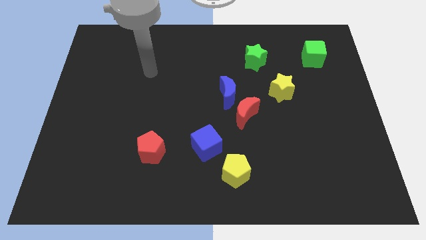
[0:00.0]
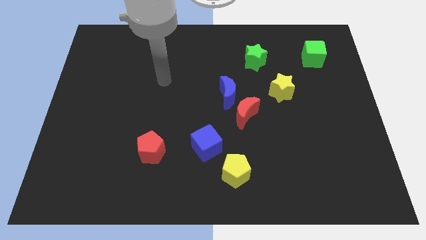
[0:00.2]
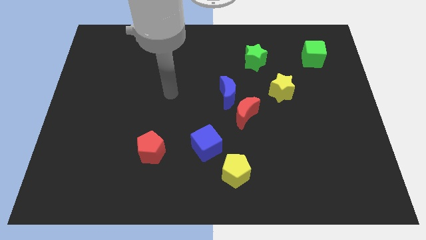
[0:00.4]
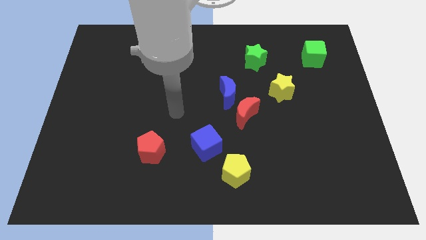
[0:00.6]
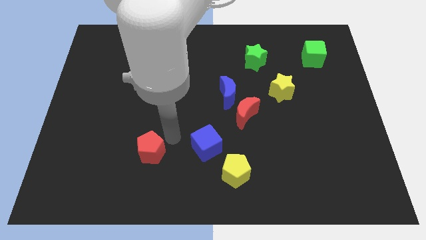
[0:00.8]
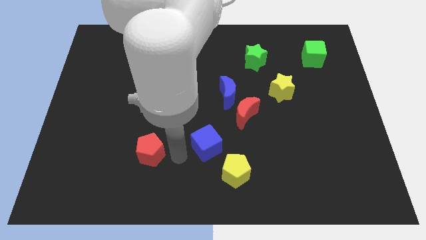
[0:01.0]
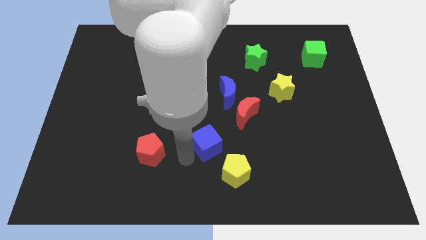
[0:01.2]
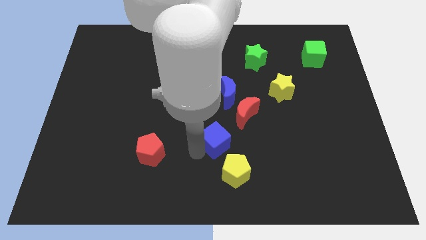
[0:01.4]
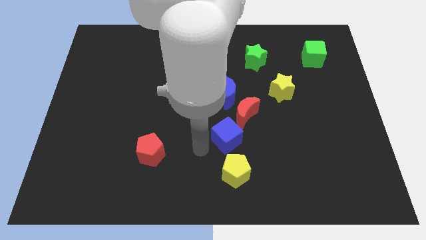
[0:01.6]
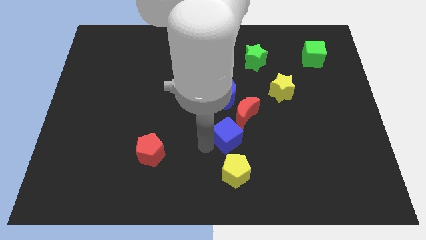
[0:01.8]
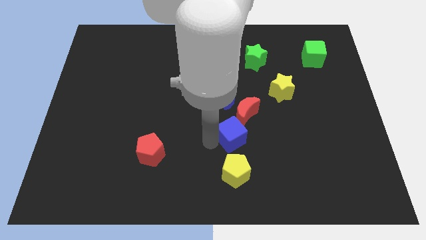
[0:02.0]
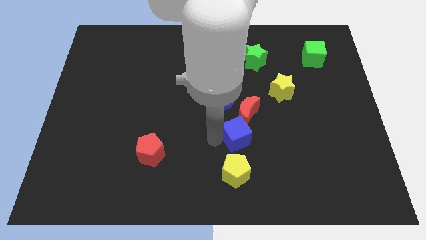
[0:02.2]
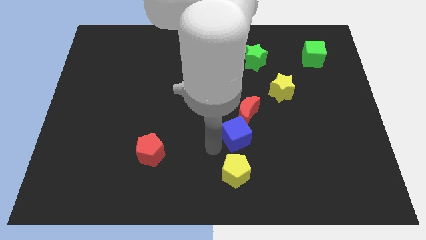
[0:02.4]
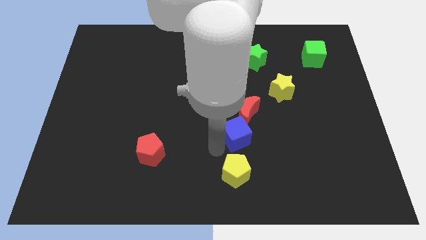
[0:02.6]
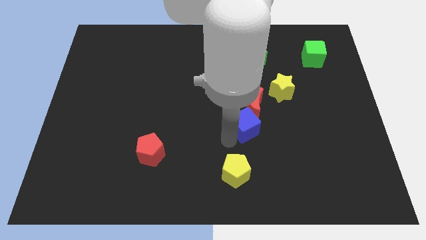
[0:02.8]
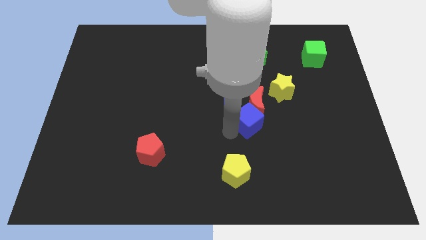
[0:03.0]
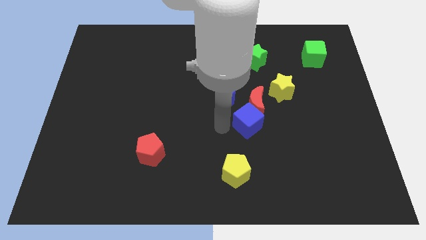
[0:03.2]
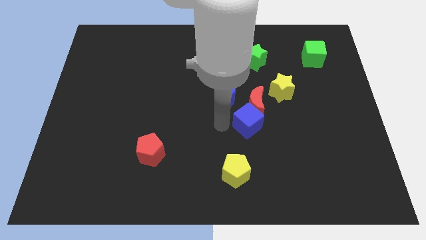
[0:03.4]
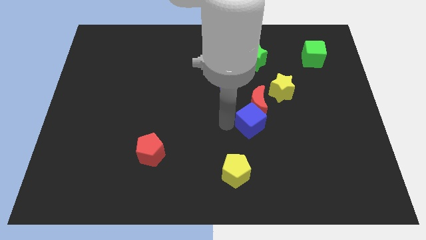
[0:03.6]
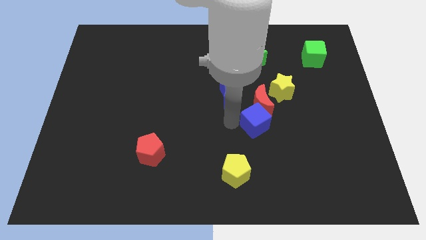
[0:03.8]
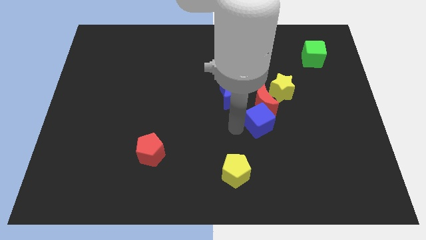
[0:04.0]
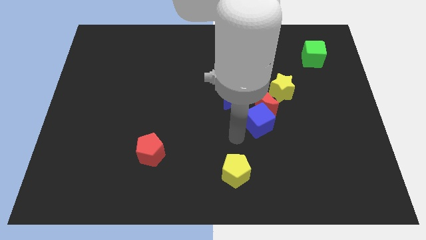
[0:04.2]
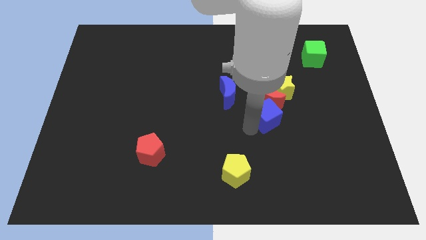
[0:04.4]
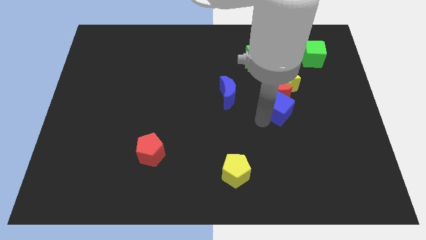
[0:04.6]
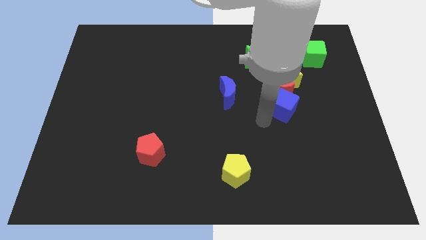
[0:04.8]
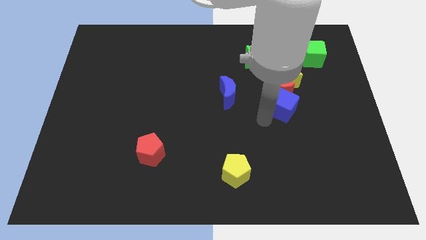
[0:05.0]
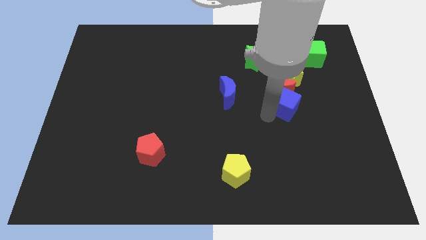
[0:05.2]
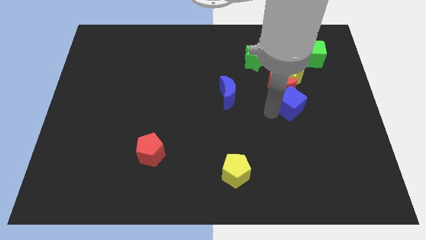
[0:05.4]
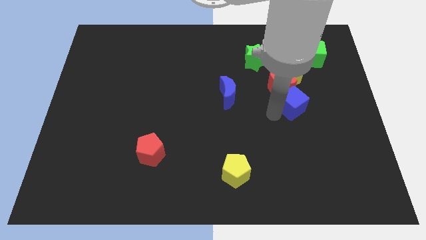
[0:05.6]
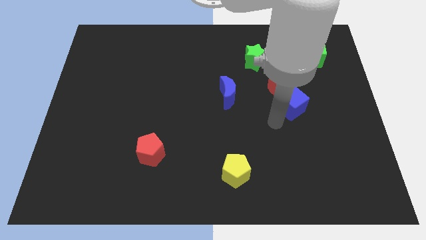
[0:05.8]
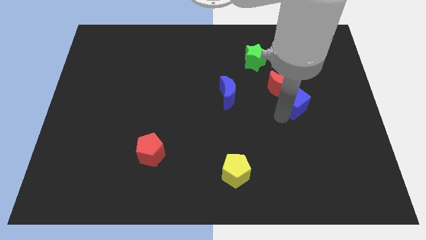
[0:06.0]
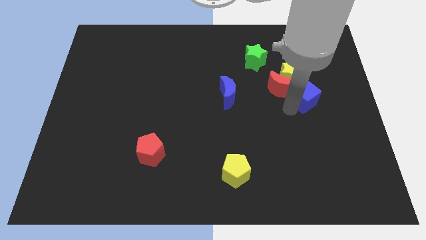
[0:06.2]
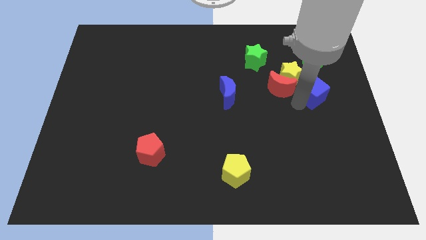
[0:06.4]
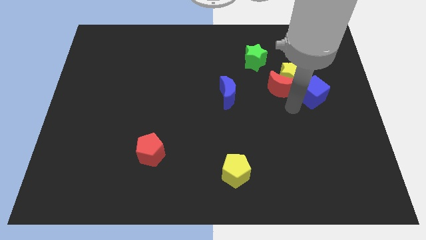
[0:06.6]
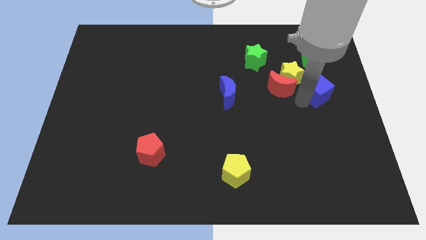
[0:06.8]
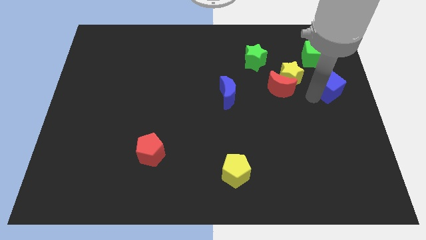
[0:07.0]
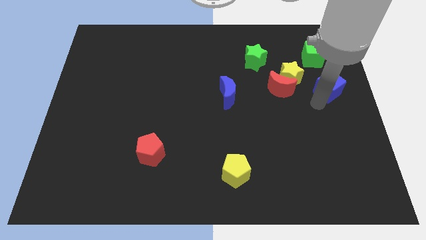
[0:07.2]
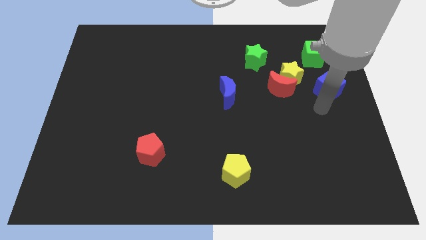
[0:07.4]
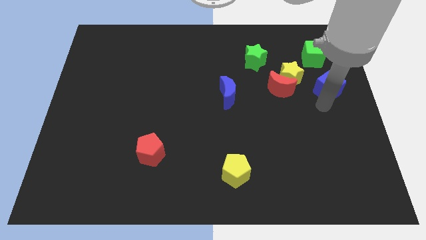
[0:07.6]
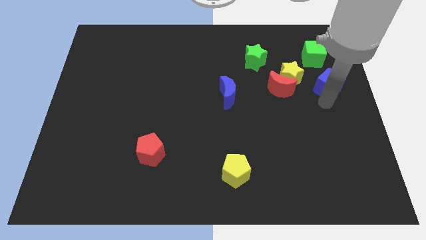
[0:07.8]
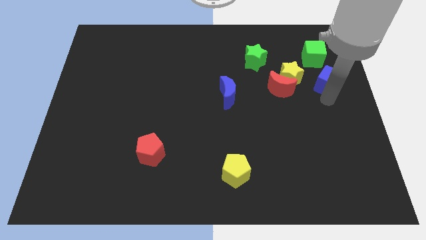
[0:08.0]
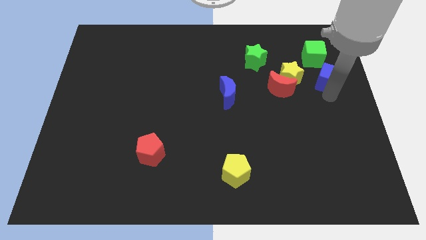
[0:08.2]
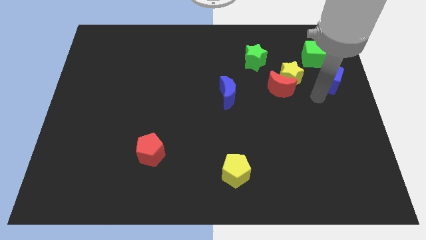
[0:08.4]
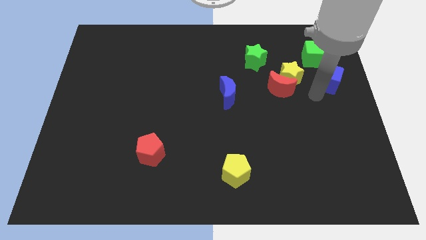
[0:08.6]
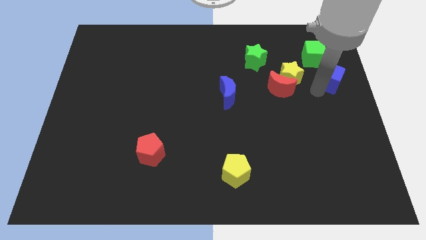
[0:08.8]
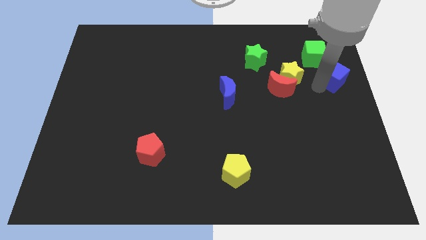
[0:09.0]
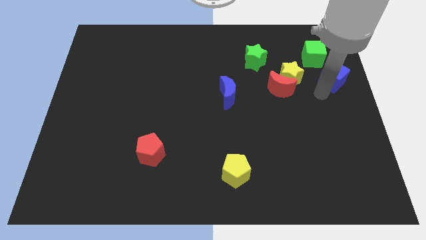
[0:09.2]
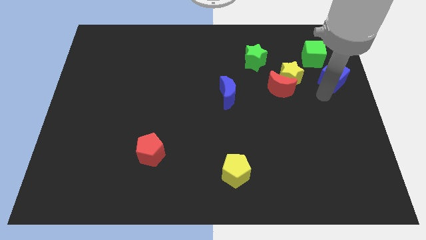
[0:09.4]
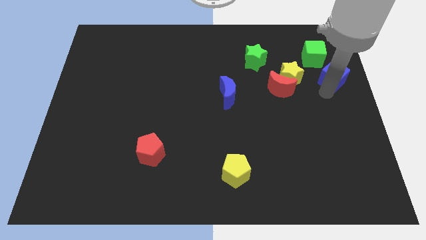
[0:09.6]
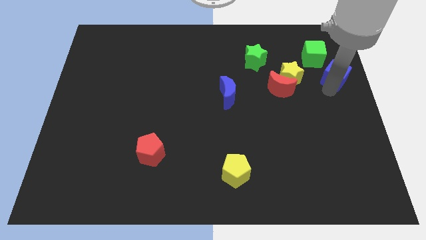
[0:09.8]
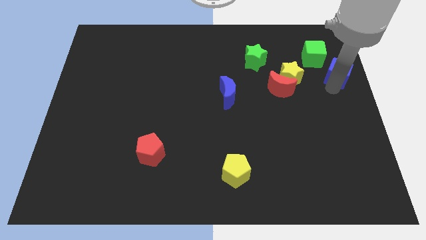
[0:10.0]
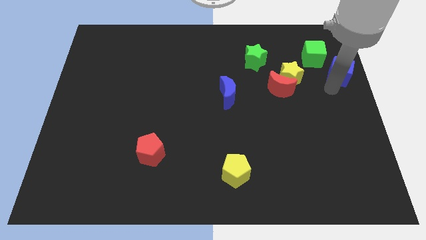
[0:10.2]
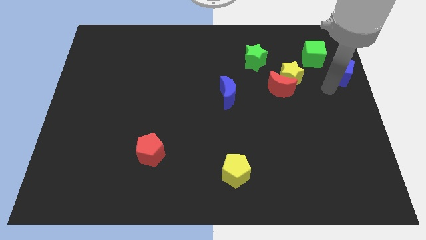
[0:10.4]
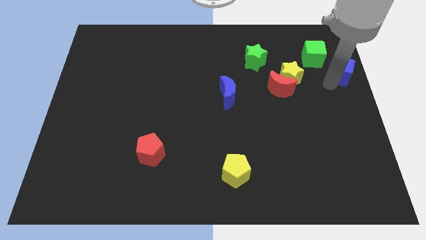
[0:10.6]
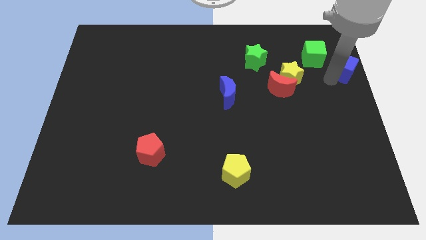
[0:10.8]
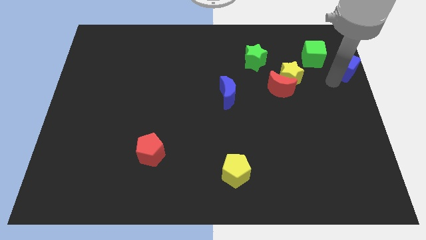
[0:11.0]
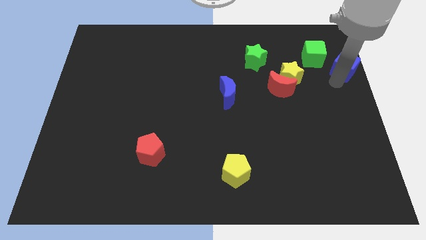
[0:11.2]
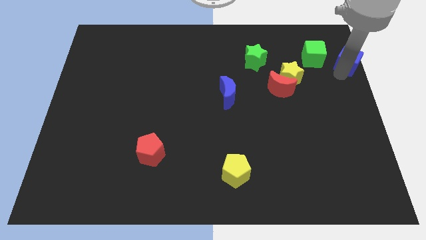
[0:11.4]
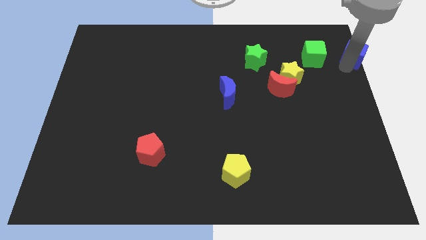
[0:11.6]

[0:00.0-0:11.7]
move the blue cube to the top right
